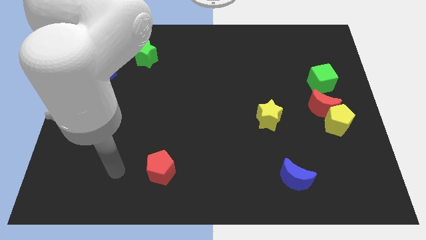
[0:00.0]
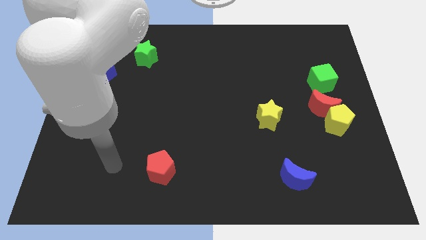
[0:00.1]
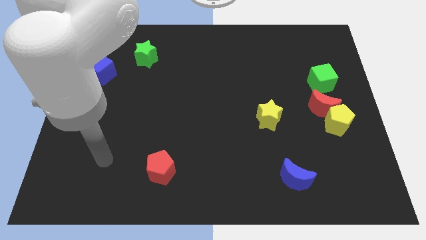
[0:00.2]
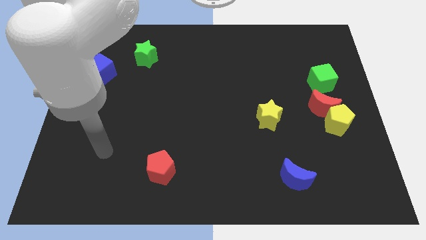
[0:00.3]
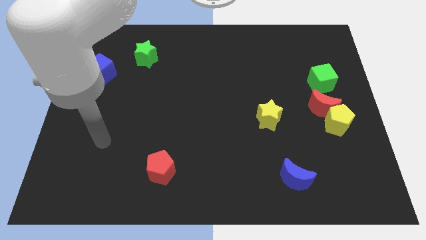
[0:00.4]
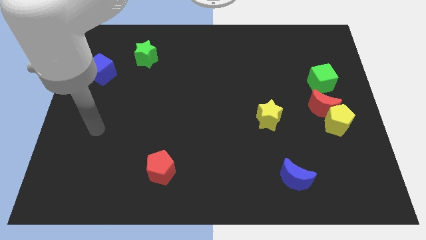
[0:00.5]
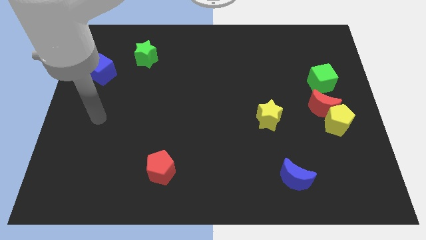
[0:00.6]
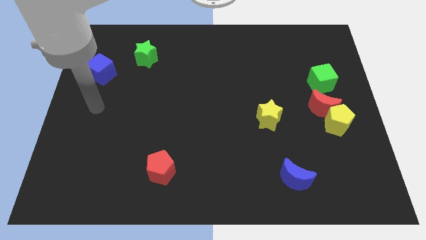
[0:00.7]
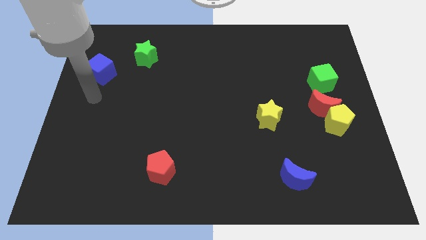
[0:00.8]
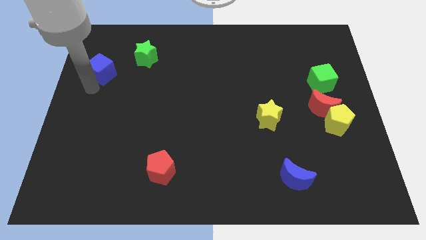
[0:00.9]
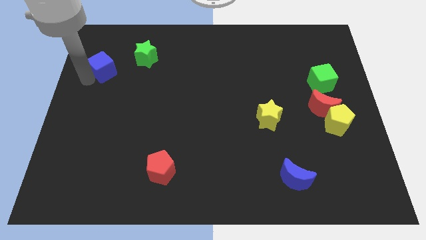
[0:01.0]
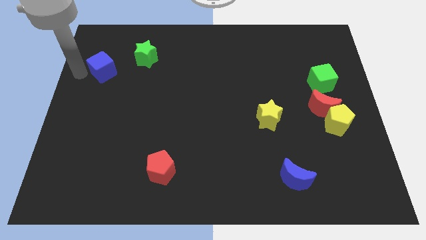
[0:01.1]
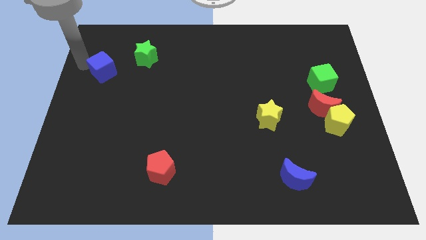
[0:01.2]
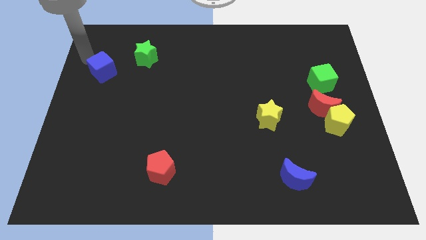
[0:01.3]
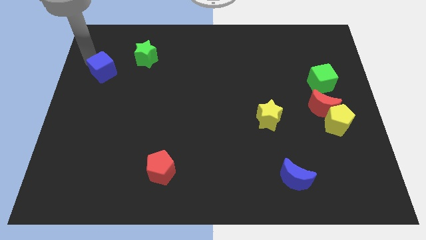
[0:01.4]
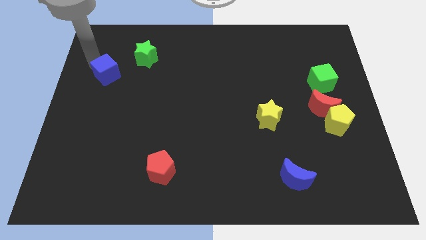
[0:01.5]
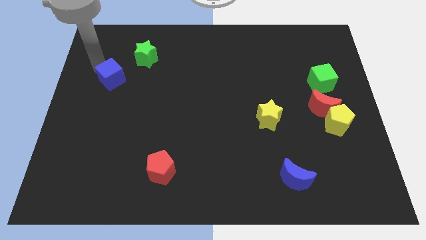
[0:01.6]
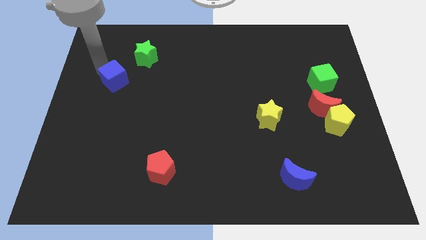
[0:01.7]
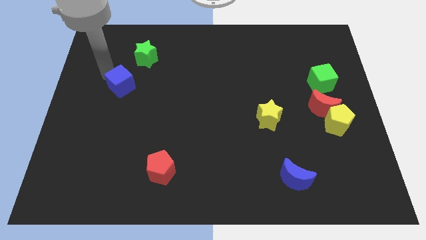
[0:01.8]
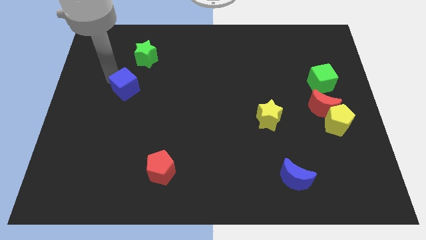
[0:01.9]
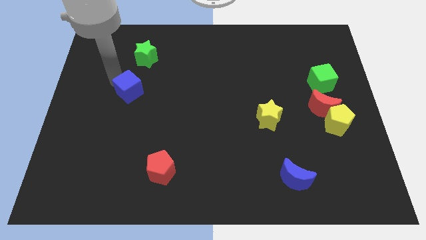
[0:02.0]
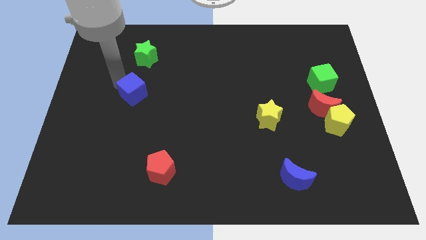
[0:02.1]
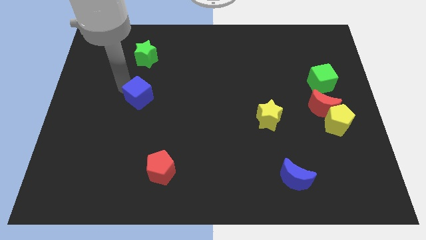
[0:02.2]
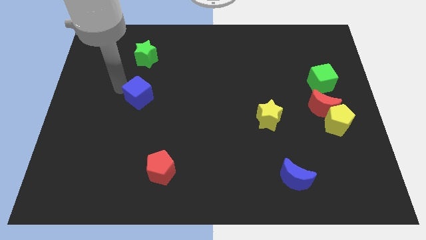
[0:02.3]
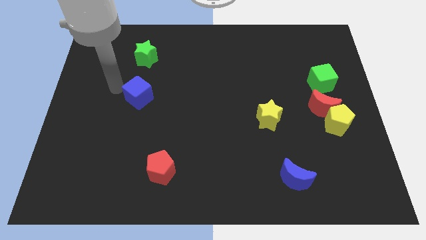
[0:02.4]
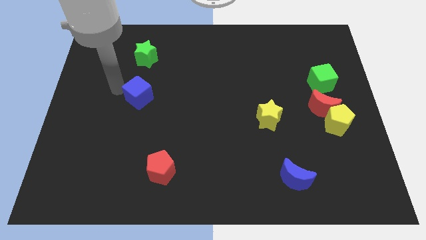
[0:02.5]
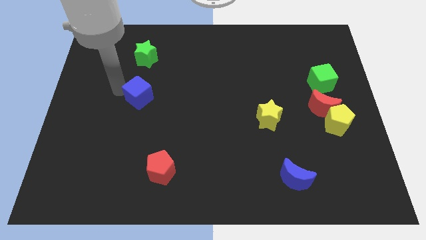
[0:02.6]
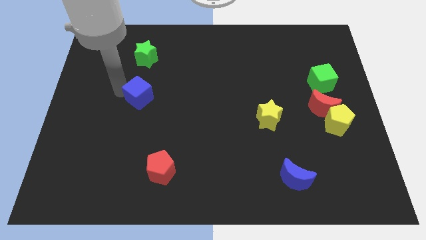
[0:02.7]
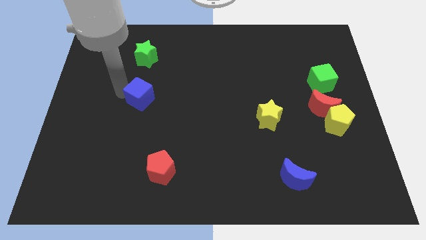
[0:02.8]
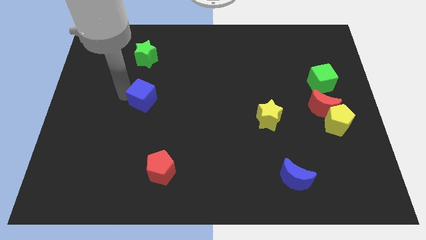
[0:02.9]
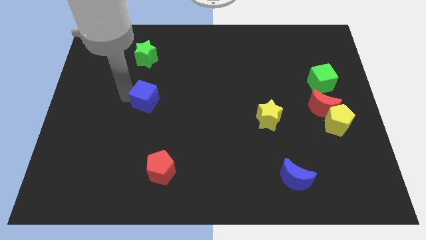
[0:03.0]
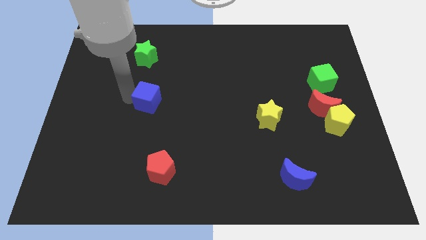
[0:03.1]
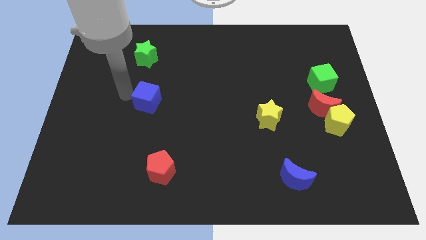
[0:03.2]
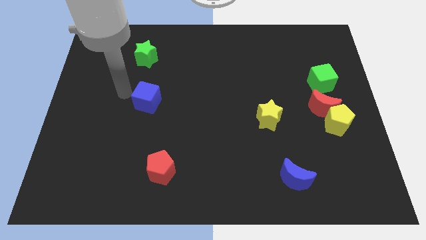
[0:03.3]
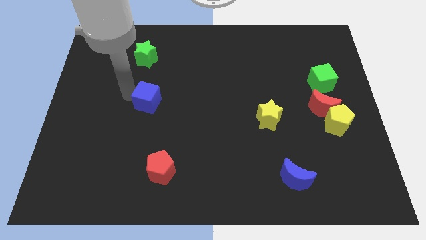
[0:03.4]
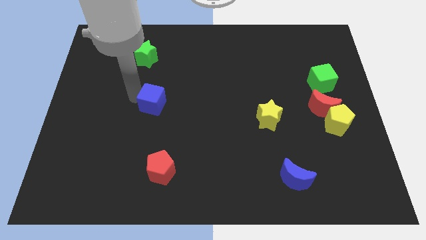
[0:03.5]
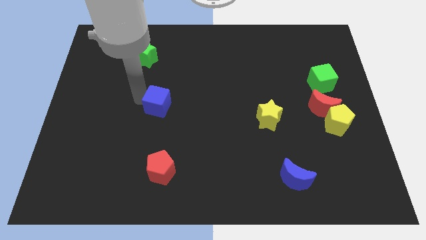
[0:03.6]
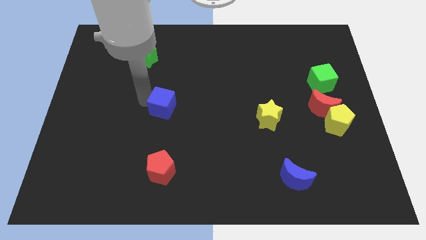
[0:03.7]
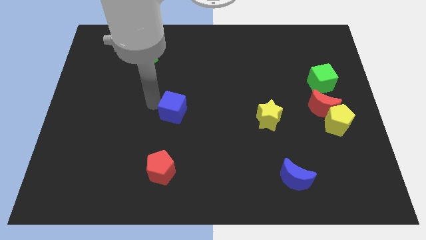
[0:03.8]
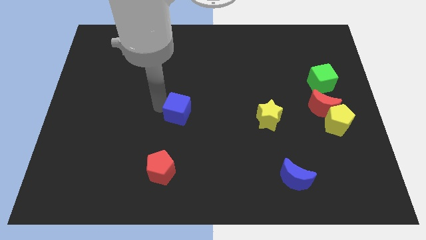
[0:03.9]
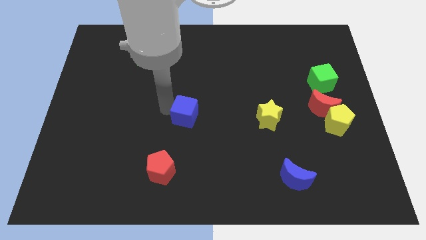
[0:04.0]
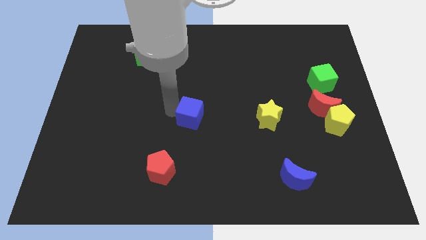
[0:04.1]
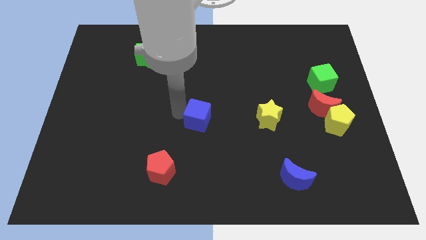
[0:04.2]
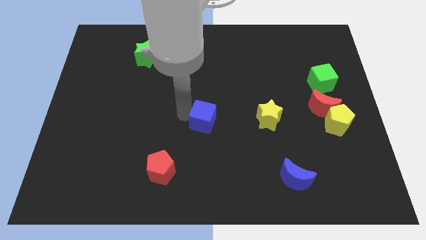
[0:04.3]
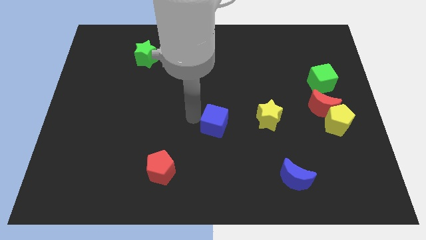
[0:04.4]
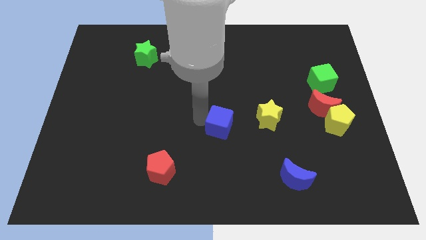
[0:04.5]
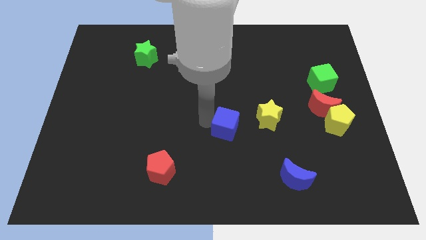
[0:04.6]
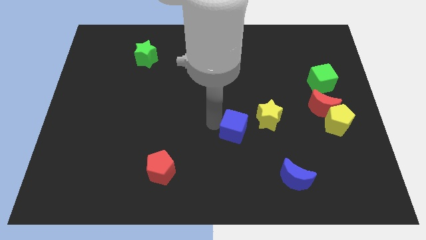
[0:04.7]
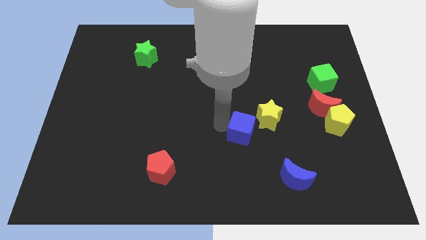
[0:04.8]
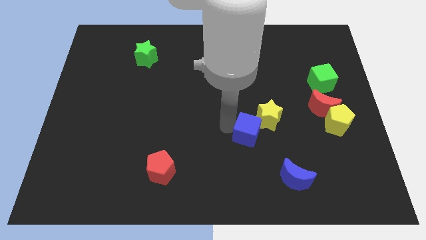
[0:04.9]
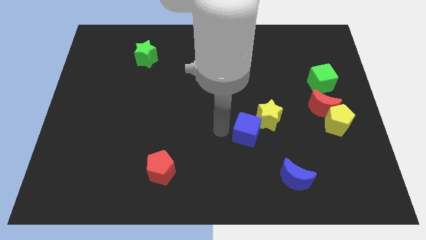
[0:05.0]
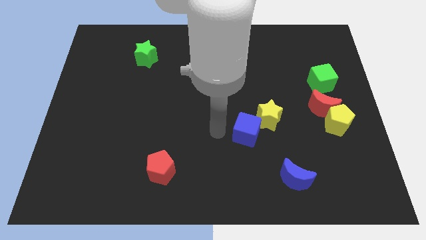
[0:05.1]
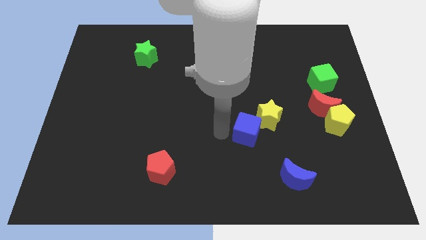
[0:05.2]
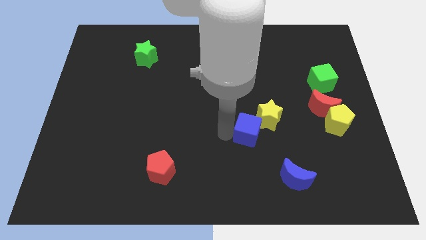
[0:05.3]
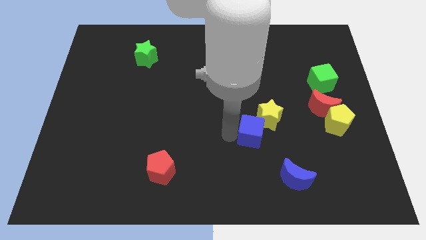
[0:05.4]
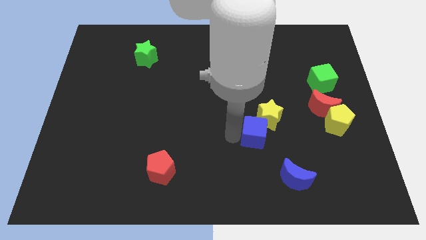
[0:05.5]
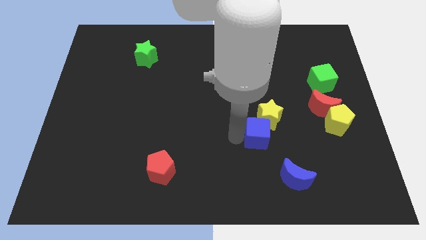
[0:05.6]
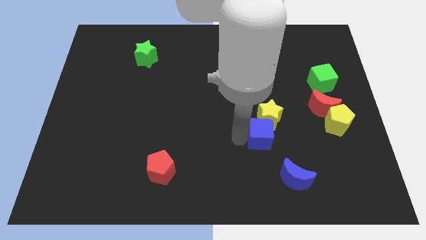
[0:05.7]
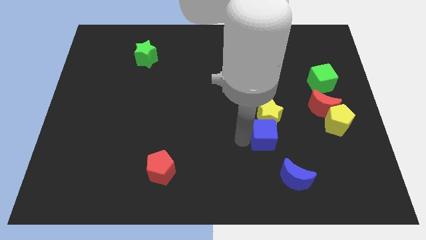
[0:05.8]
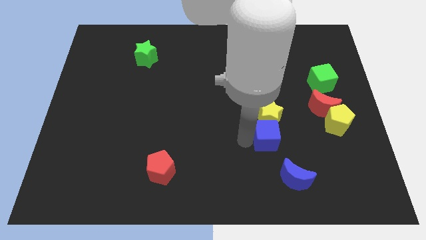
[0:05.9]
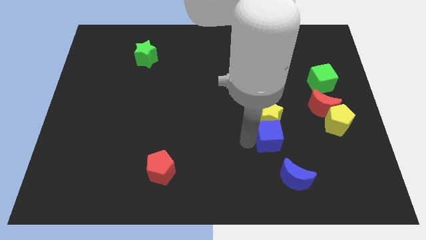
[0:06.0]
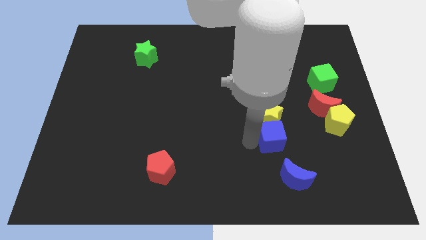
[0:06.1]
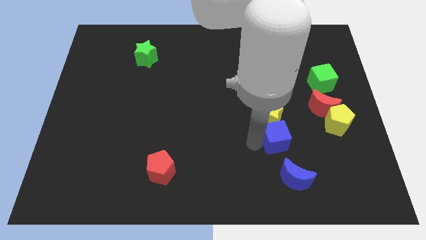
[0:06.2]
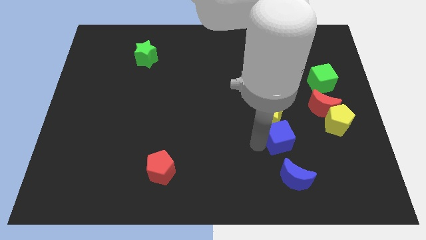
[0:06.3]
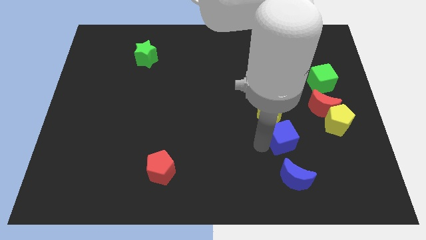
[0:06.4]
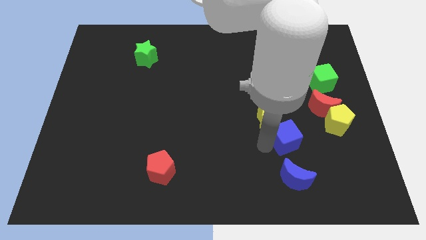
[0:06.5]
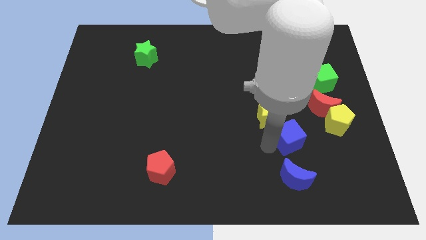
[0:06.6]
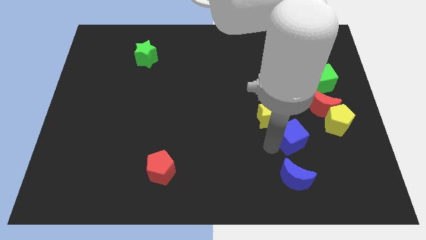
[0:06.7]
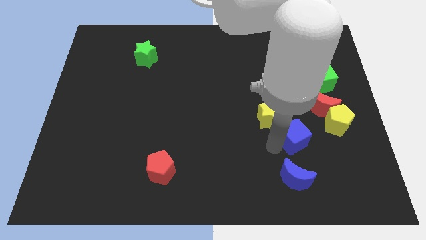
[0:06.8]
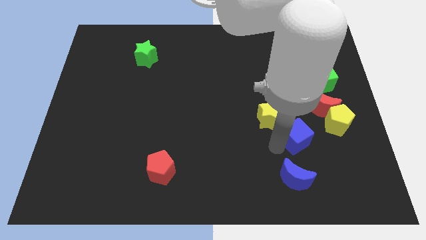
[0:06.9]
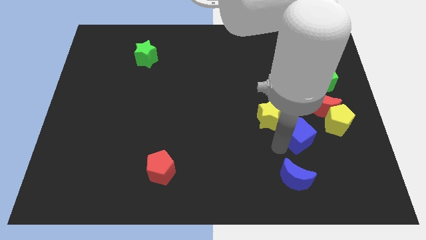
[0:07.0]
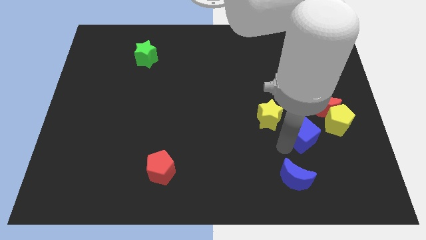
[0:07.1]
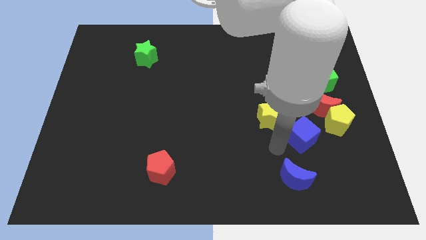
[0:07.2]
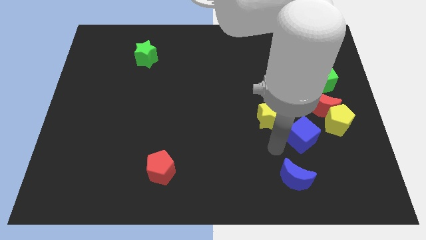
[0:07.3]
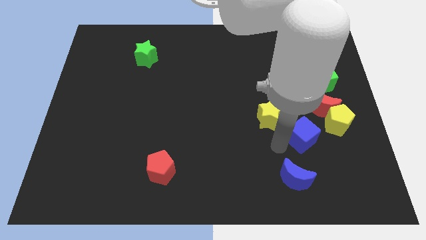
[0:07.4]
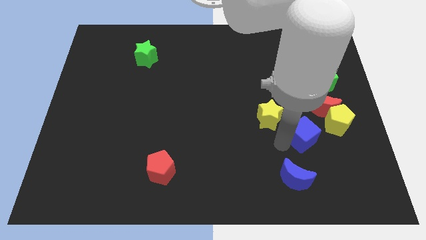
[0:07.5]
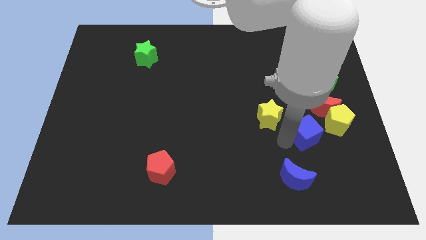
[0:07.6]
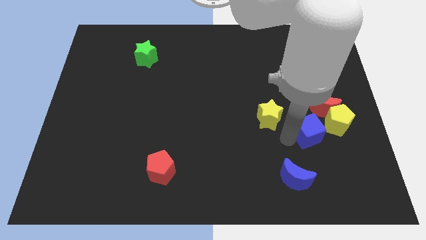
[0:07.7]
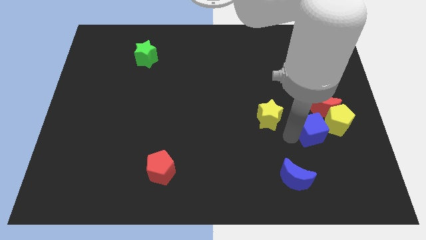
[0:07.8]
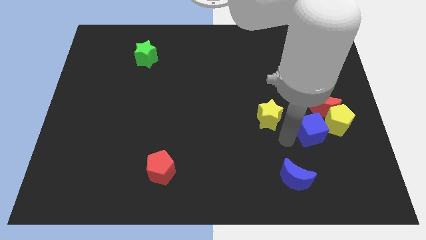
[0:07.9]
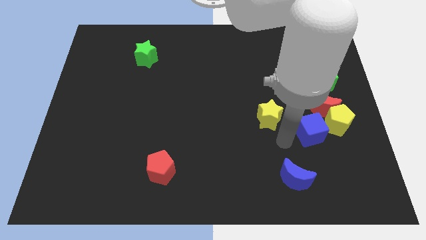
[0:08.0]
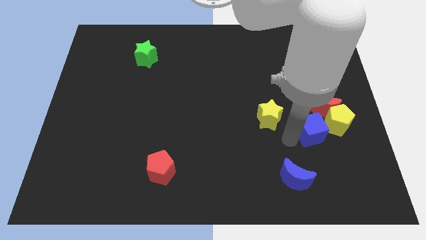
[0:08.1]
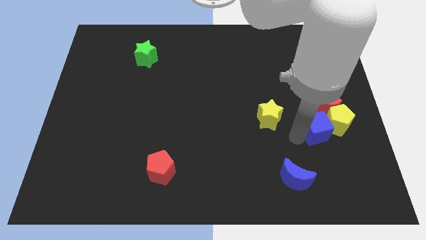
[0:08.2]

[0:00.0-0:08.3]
move the blue cube next to the yellow pentagon
